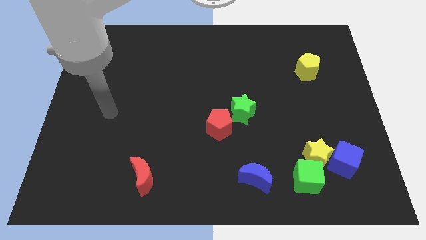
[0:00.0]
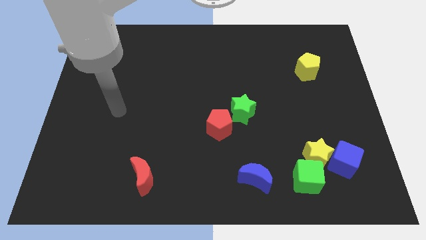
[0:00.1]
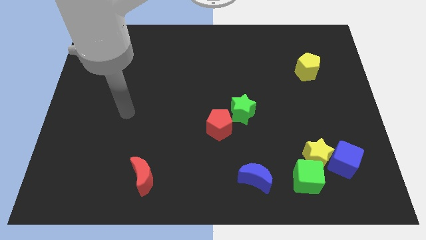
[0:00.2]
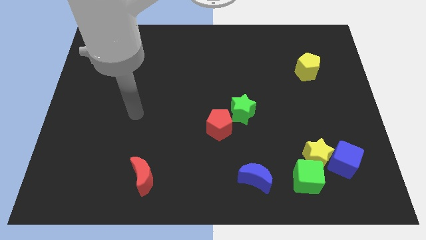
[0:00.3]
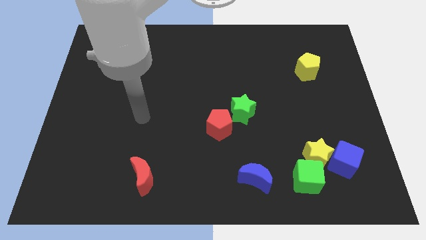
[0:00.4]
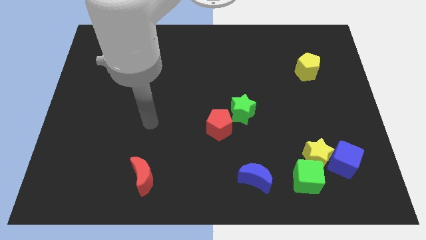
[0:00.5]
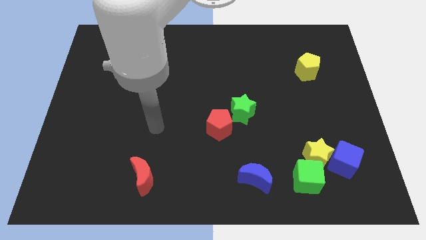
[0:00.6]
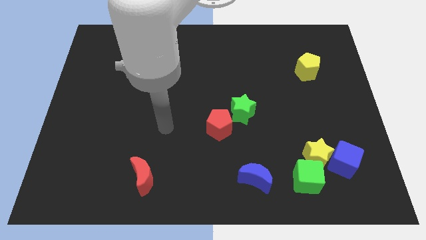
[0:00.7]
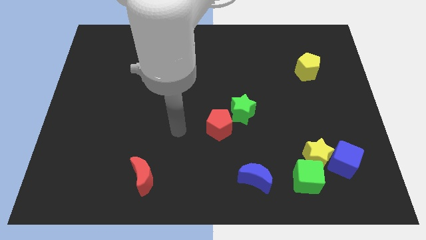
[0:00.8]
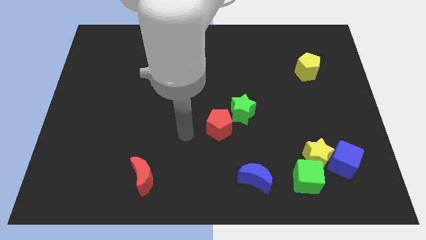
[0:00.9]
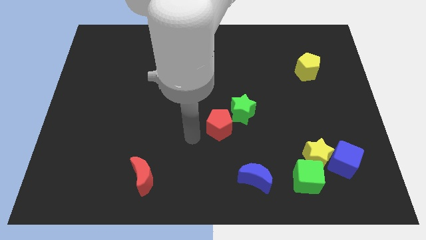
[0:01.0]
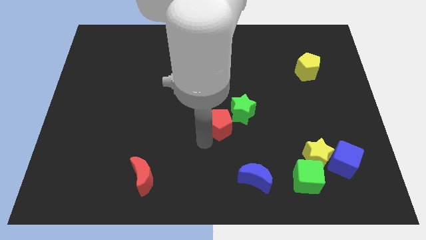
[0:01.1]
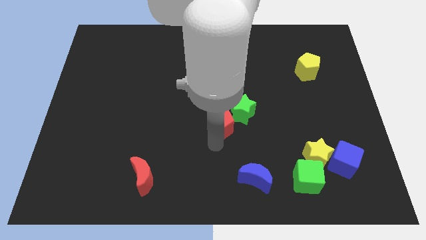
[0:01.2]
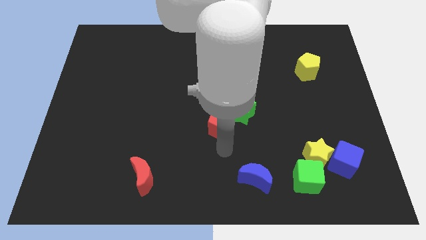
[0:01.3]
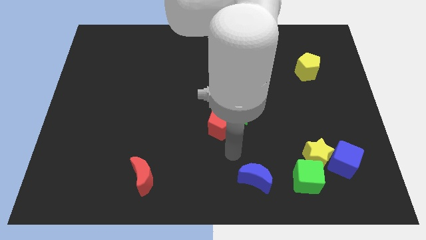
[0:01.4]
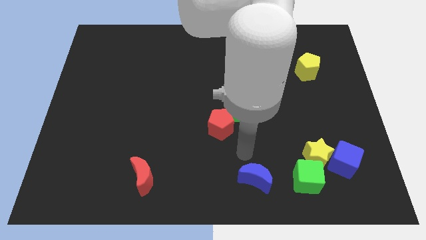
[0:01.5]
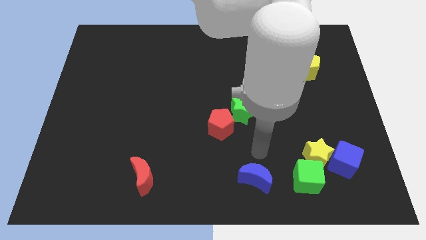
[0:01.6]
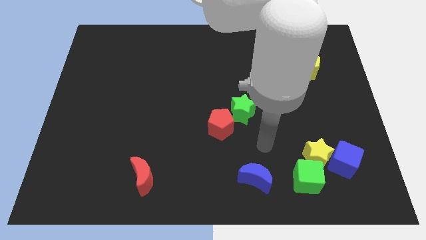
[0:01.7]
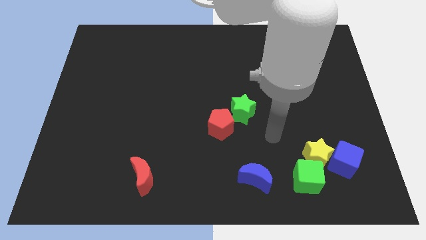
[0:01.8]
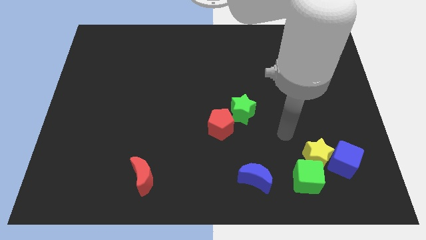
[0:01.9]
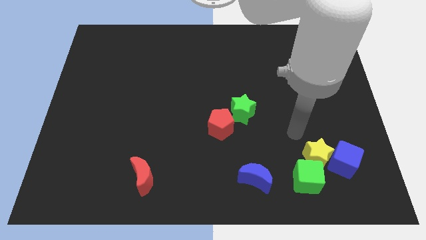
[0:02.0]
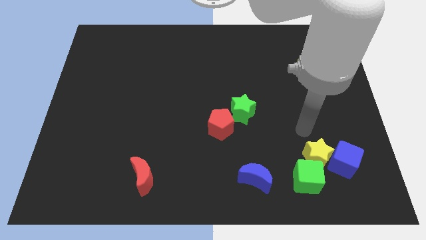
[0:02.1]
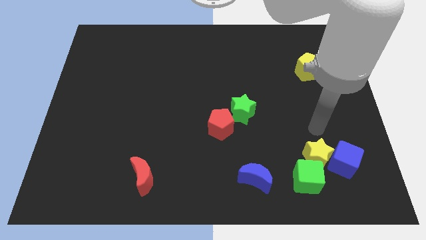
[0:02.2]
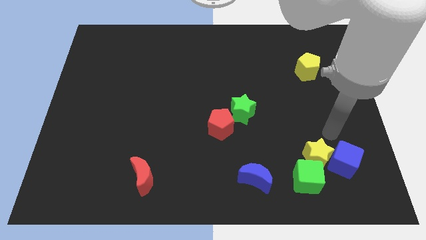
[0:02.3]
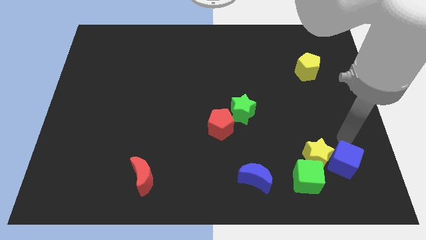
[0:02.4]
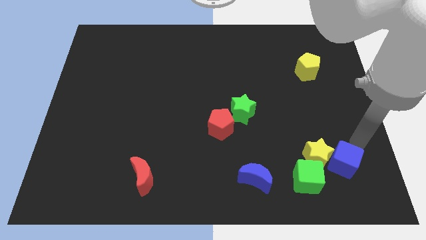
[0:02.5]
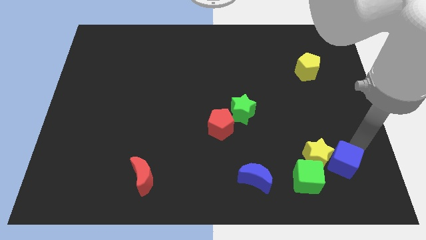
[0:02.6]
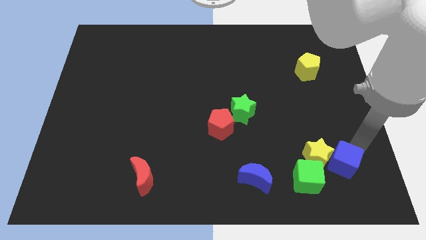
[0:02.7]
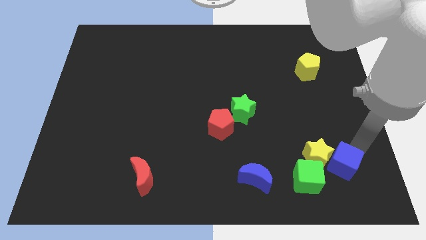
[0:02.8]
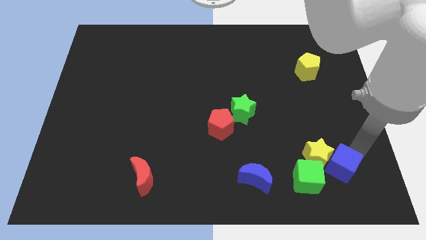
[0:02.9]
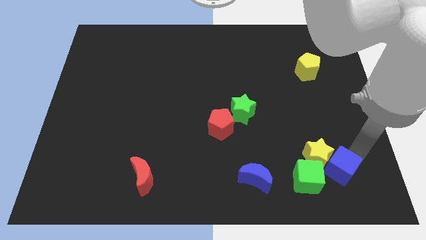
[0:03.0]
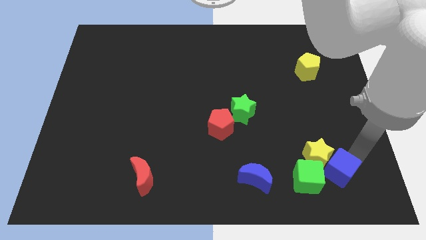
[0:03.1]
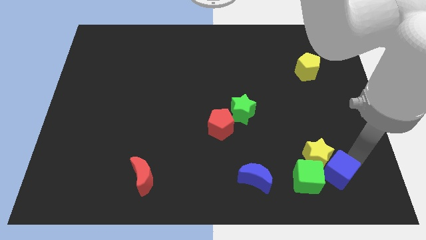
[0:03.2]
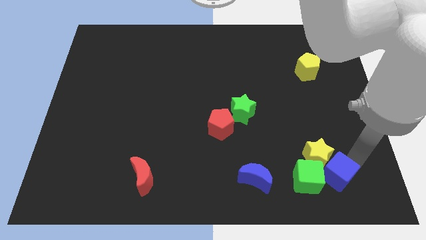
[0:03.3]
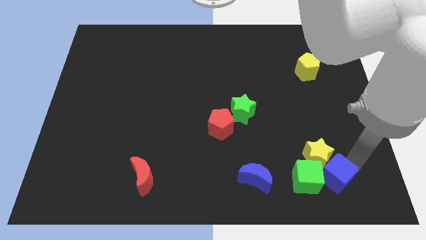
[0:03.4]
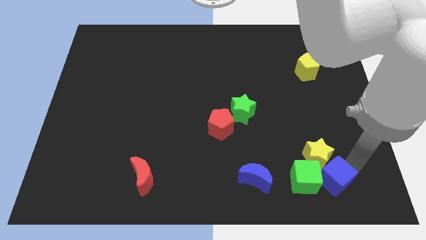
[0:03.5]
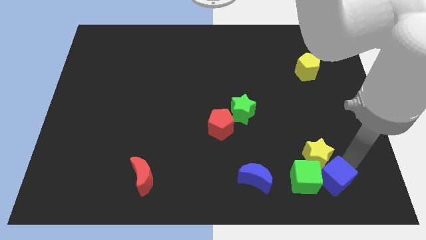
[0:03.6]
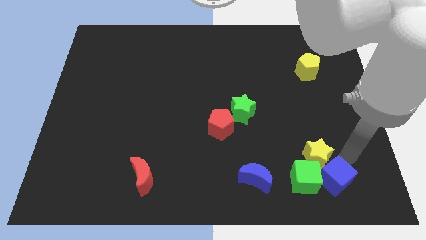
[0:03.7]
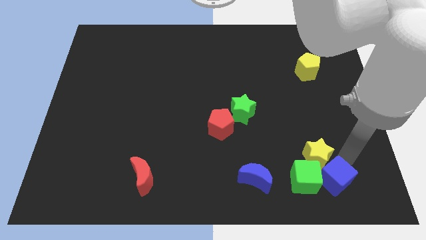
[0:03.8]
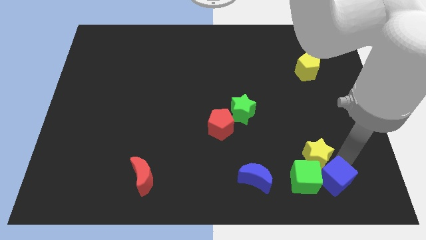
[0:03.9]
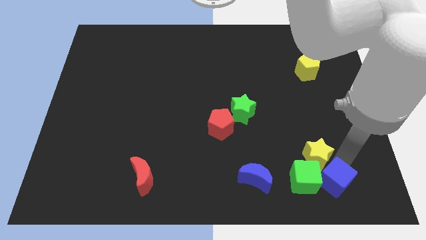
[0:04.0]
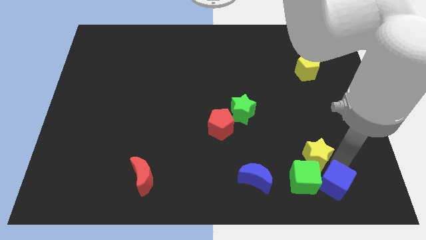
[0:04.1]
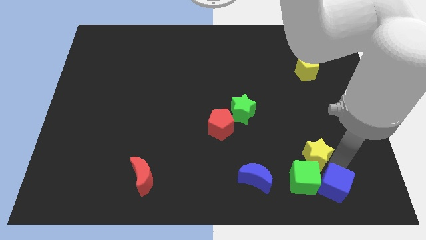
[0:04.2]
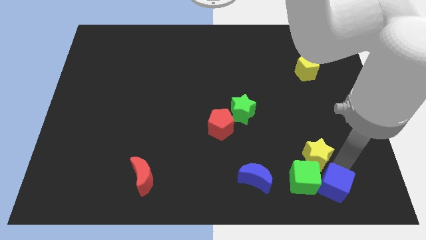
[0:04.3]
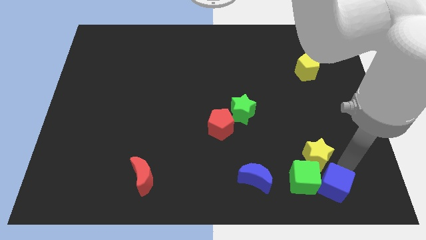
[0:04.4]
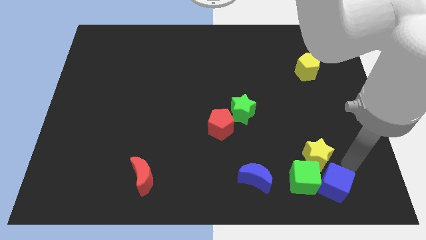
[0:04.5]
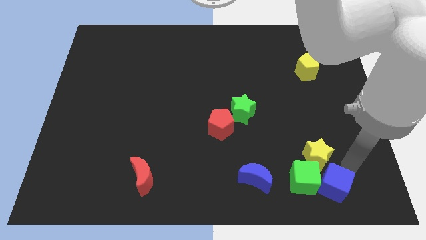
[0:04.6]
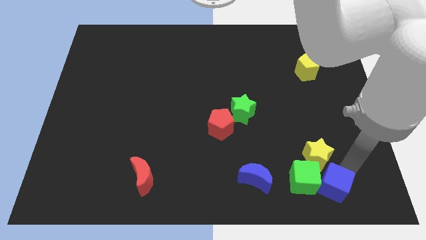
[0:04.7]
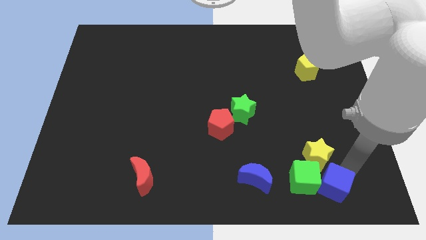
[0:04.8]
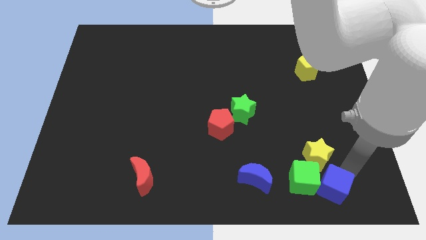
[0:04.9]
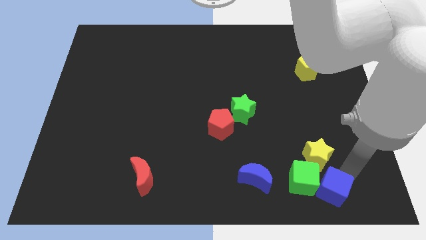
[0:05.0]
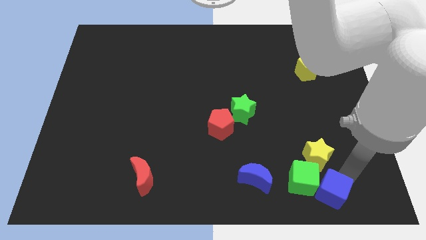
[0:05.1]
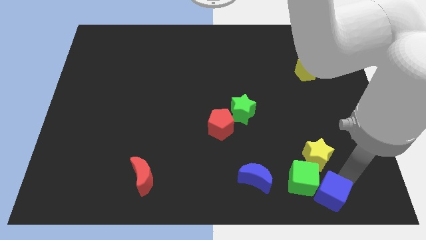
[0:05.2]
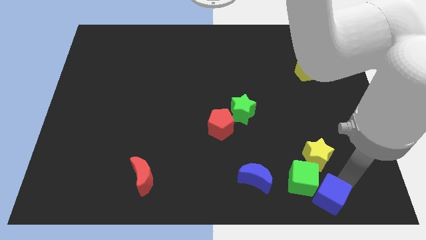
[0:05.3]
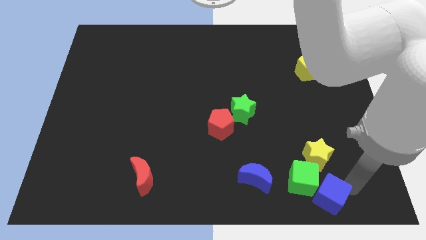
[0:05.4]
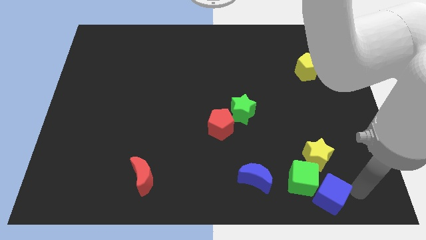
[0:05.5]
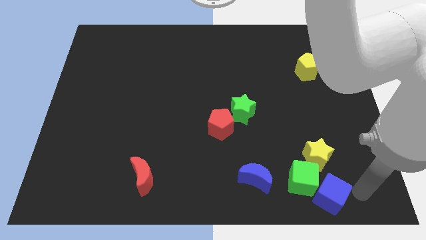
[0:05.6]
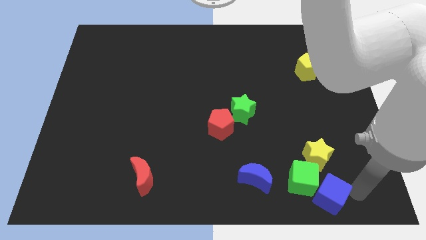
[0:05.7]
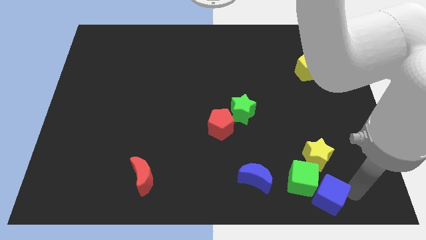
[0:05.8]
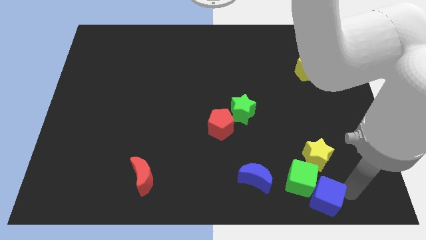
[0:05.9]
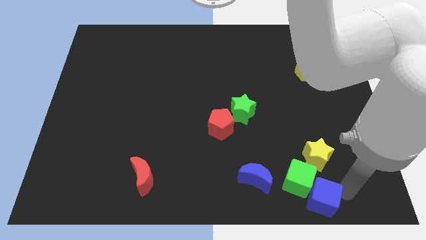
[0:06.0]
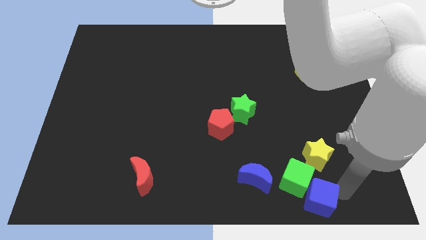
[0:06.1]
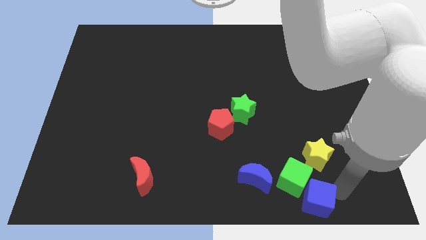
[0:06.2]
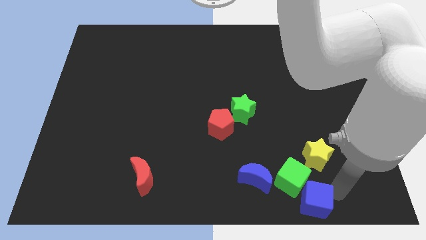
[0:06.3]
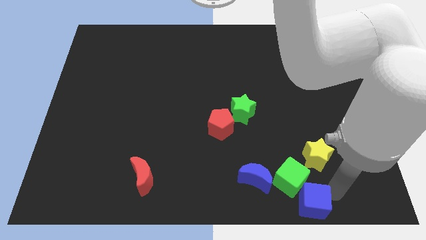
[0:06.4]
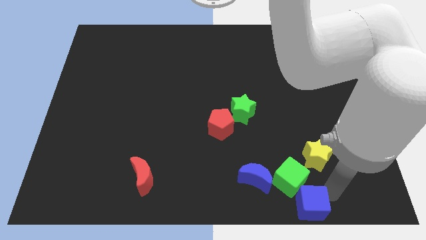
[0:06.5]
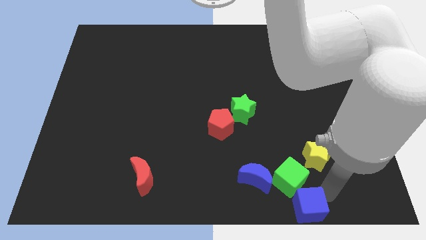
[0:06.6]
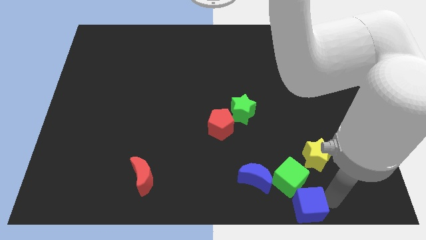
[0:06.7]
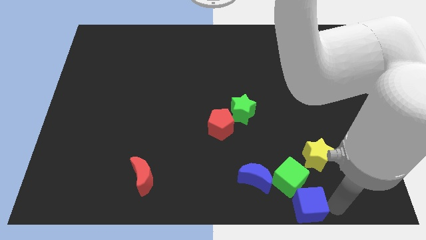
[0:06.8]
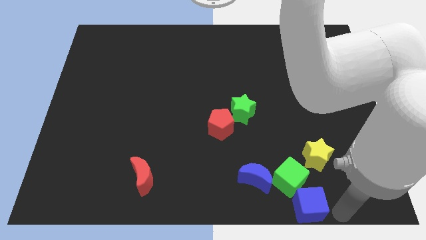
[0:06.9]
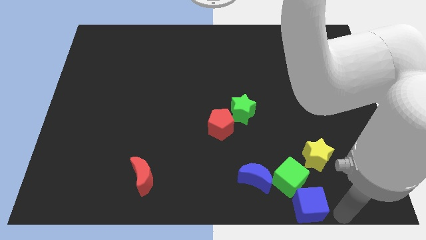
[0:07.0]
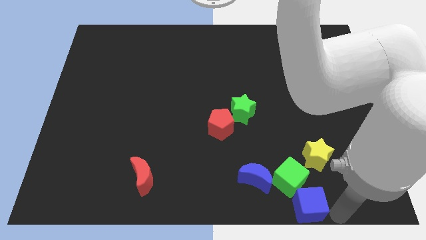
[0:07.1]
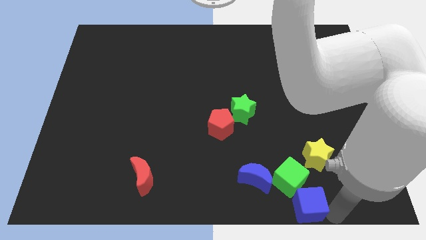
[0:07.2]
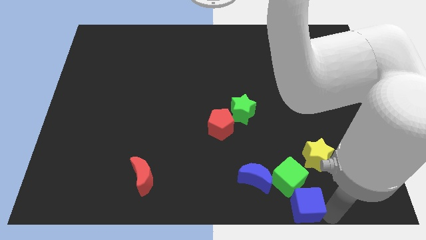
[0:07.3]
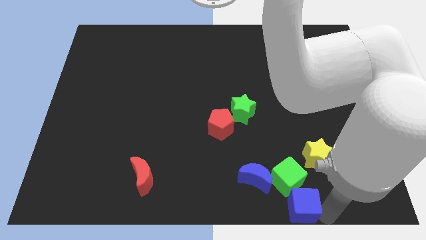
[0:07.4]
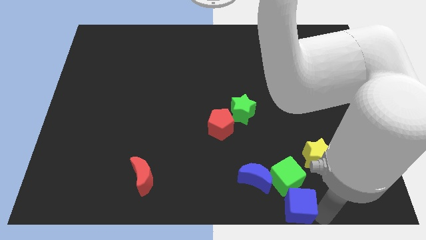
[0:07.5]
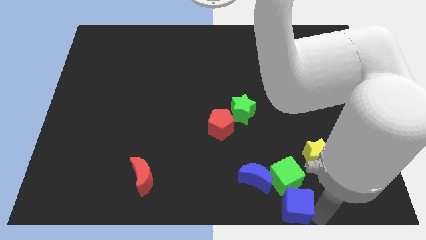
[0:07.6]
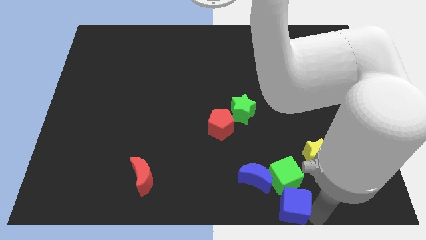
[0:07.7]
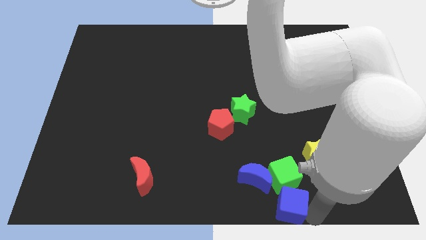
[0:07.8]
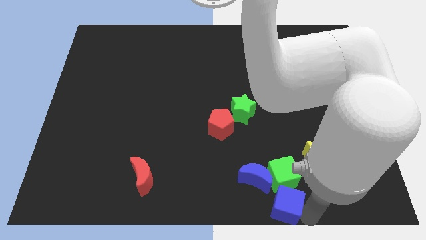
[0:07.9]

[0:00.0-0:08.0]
push the blue cube to the bottom side
